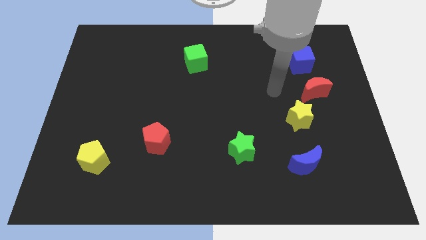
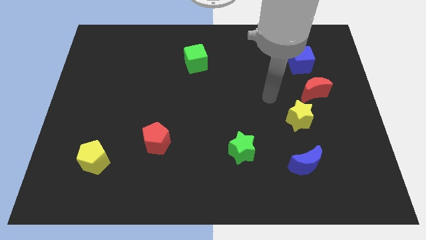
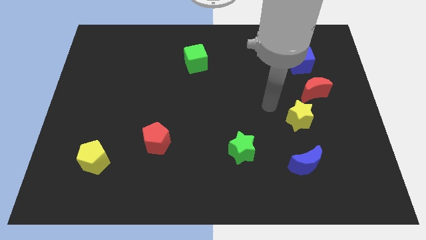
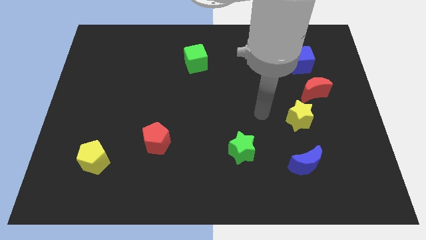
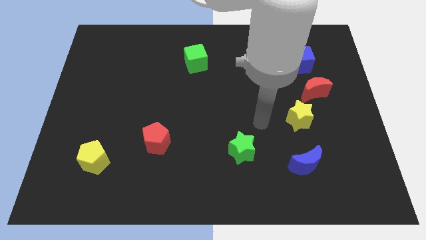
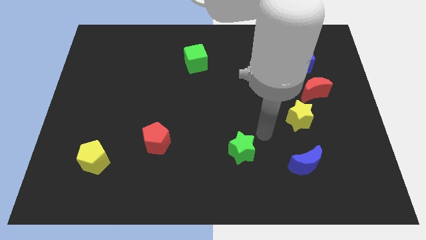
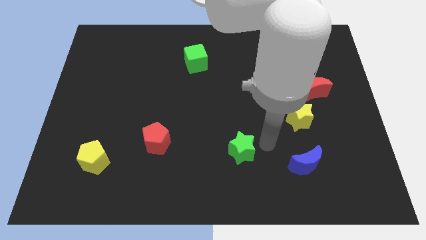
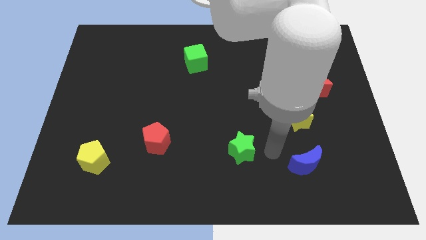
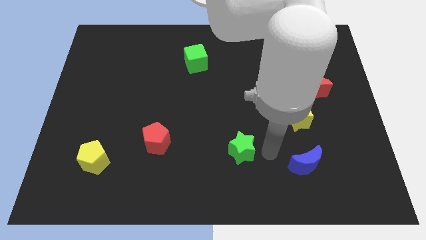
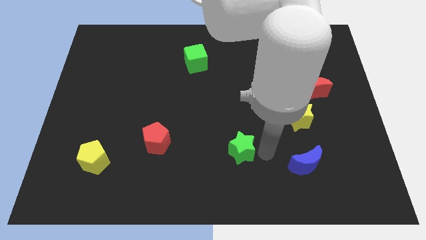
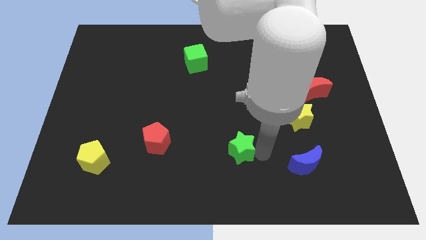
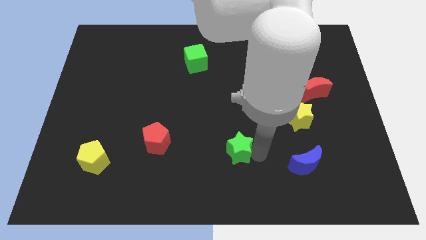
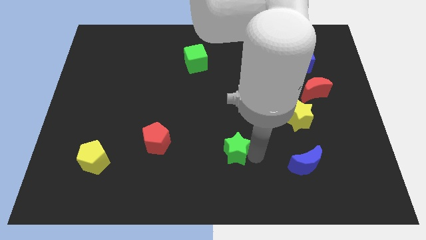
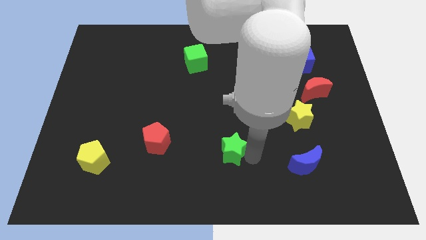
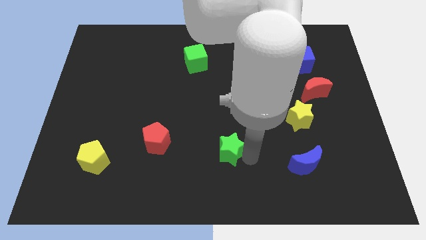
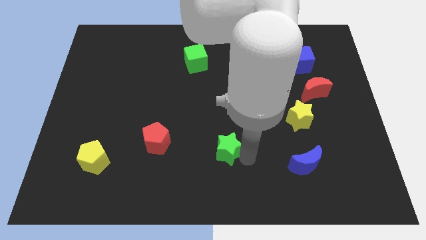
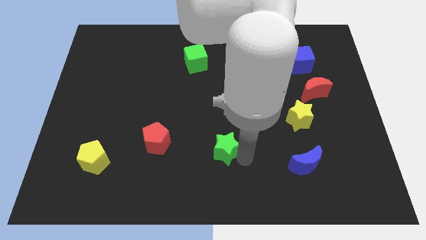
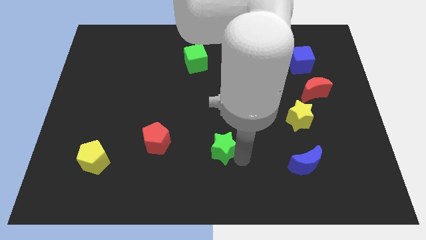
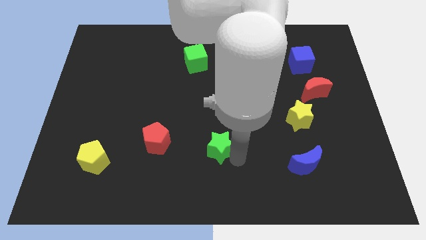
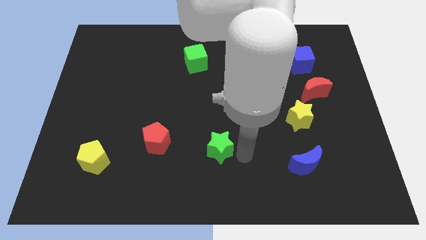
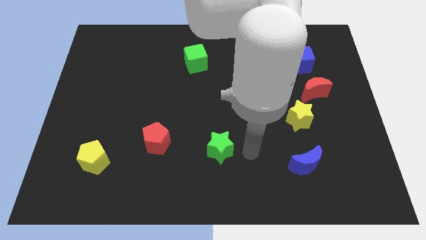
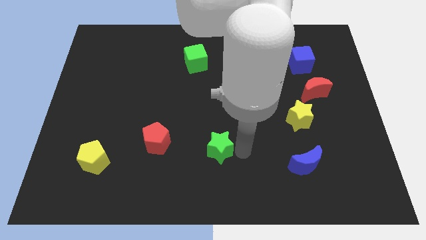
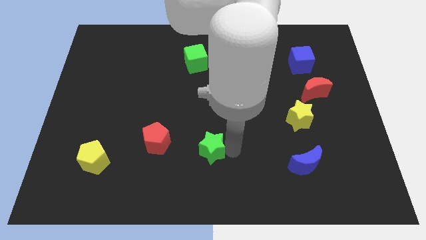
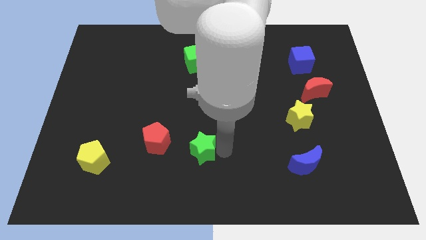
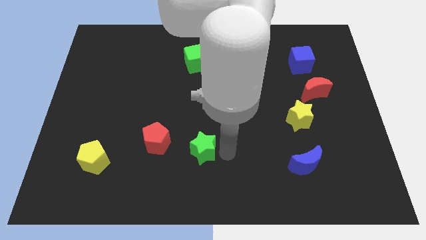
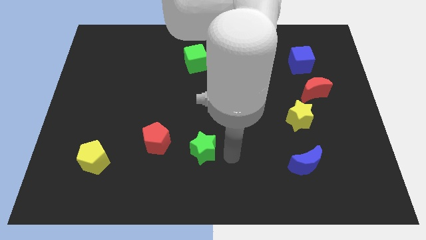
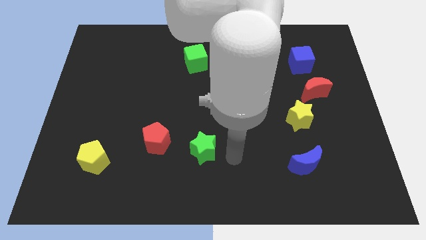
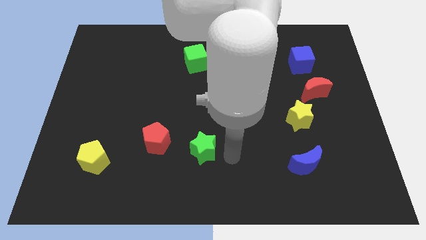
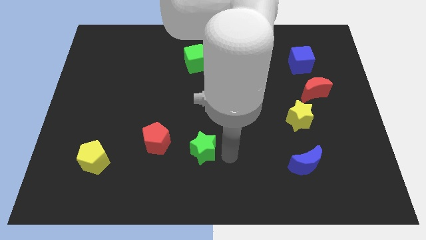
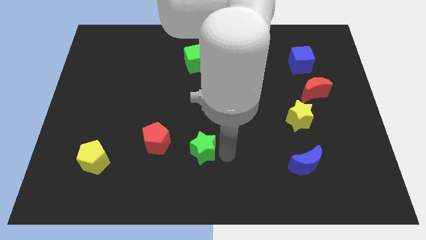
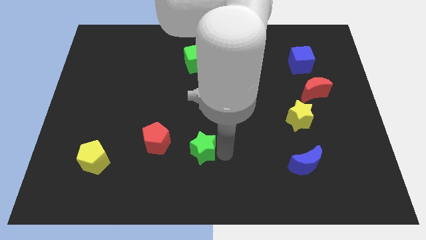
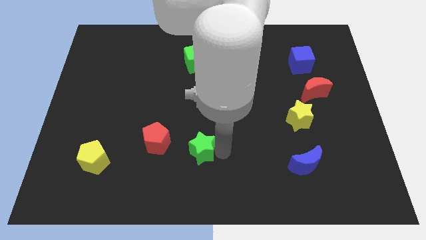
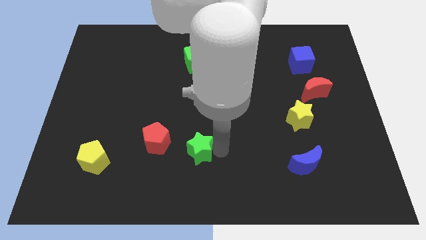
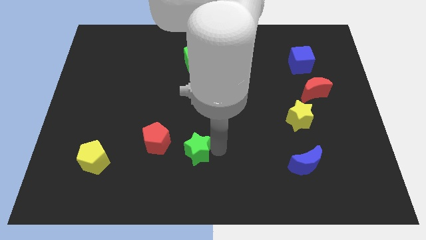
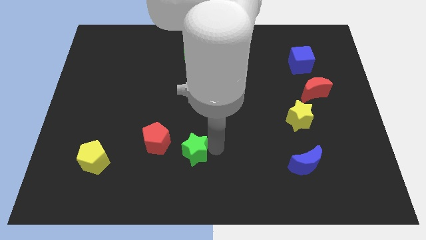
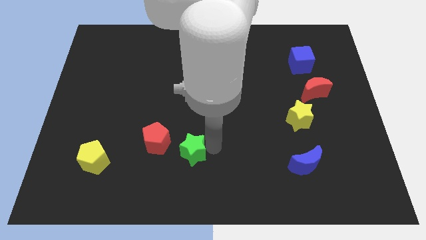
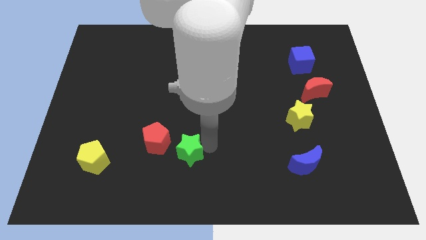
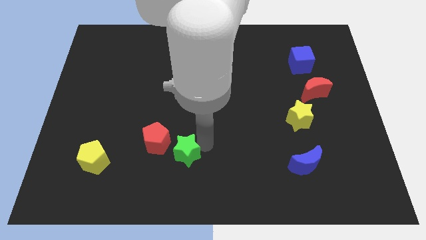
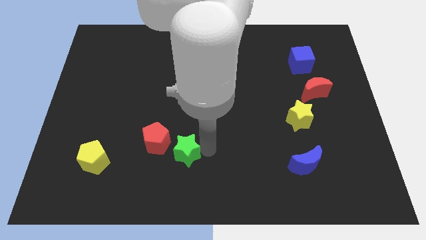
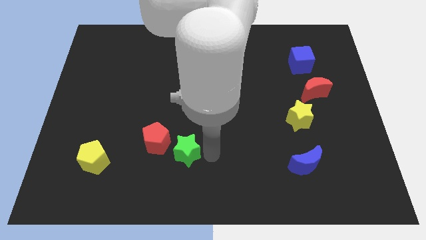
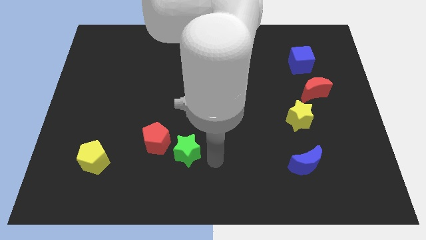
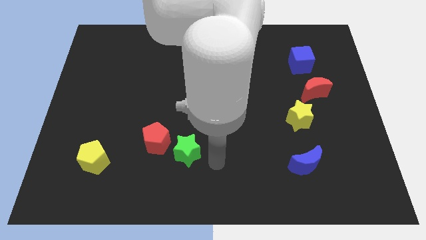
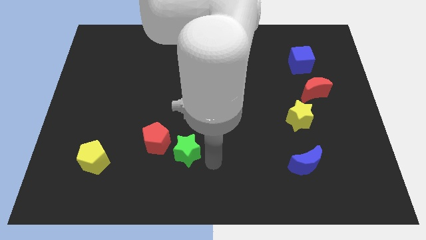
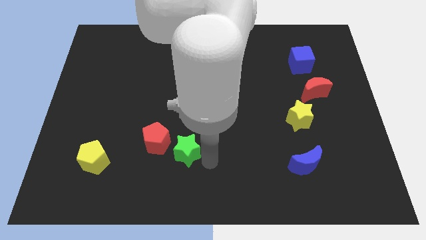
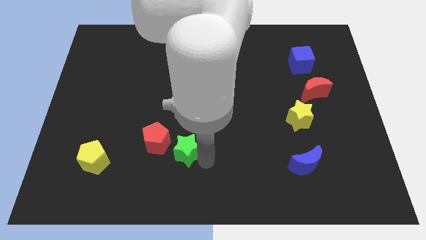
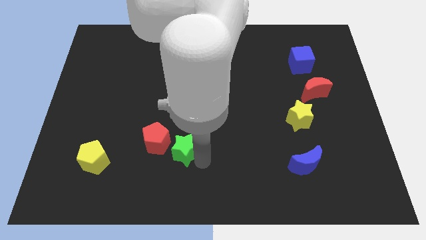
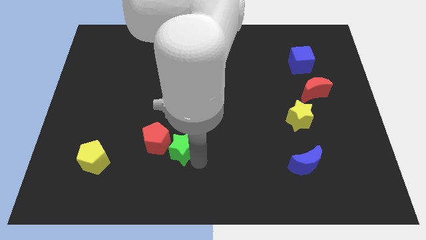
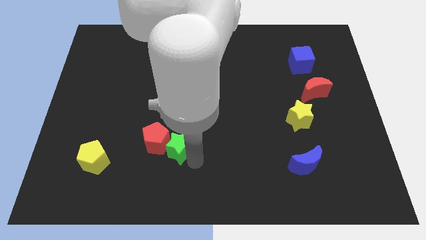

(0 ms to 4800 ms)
push the green star close to the red pentagon

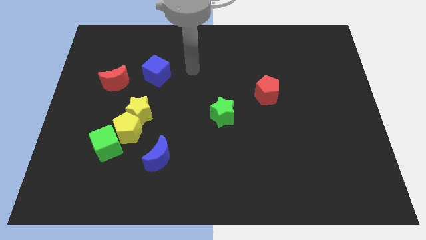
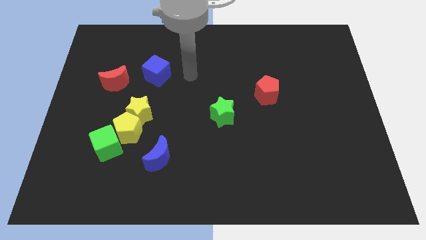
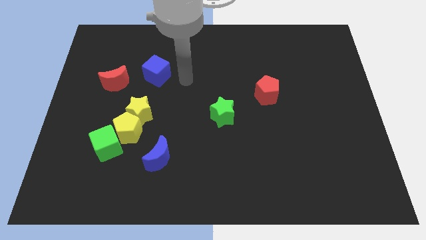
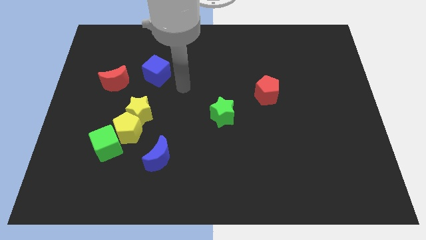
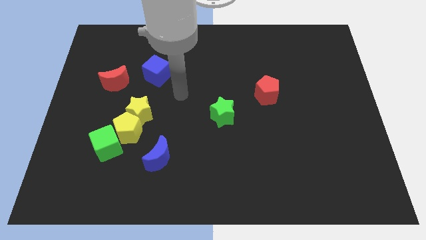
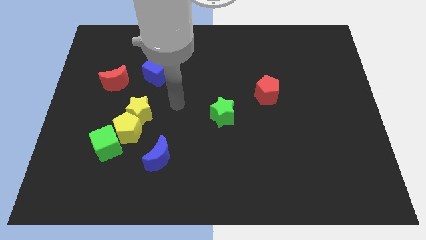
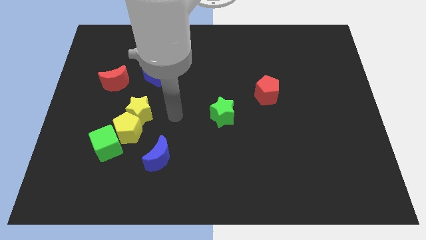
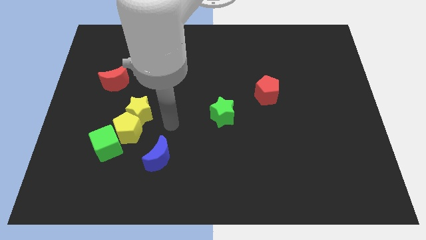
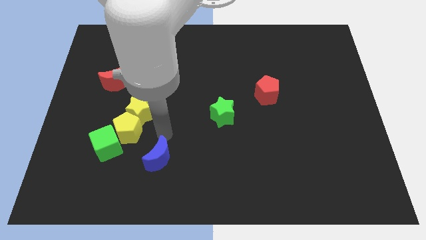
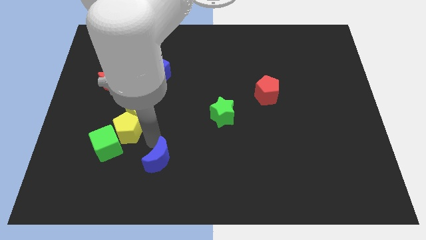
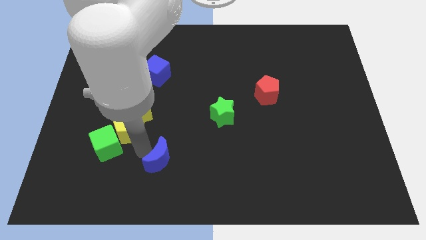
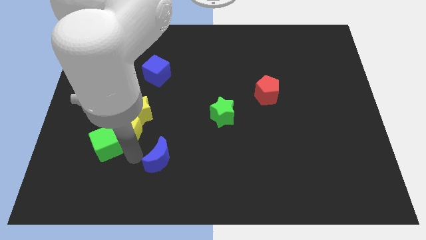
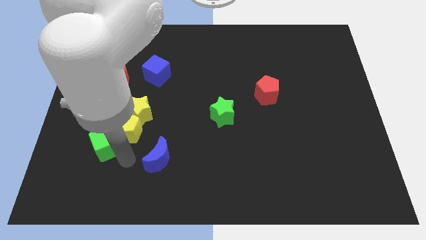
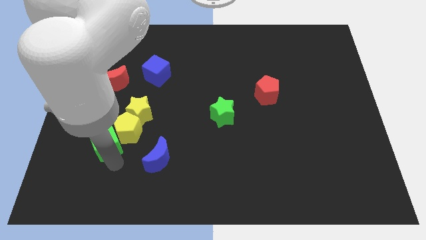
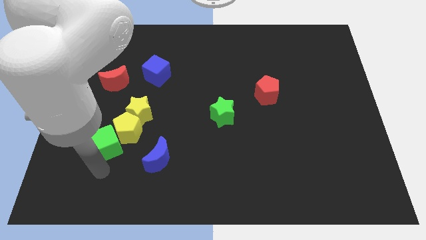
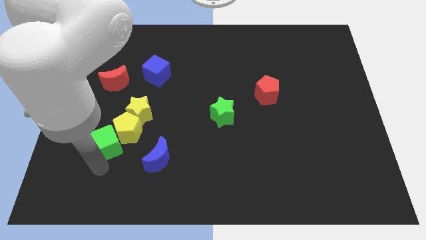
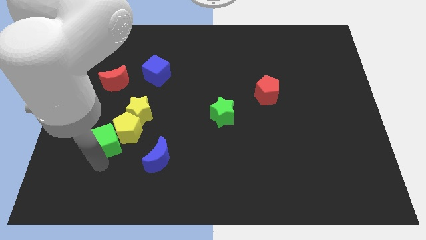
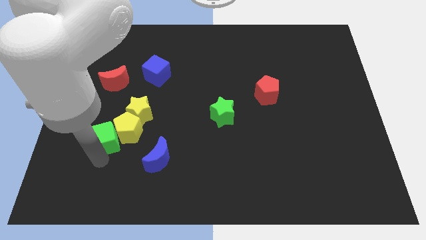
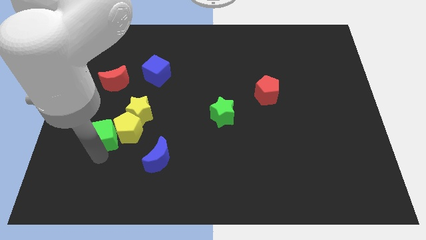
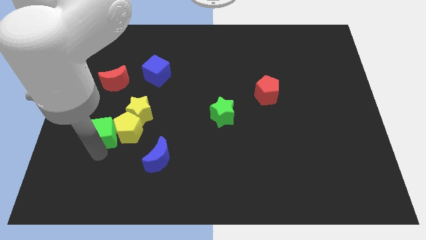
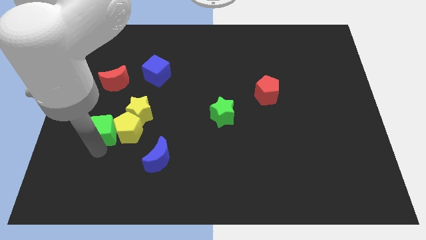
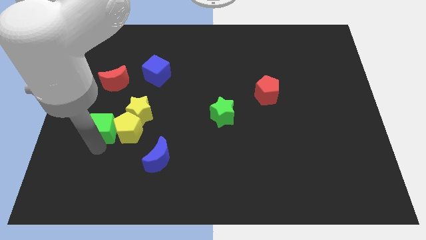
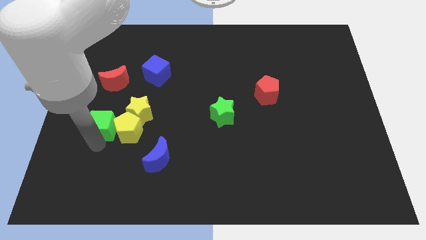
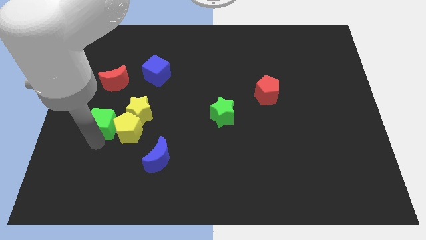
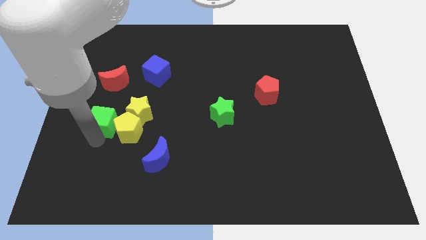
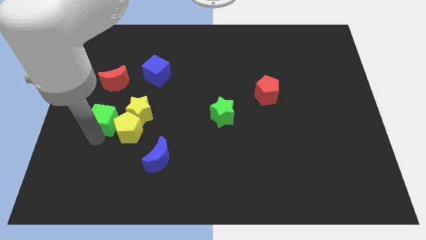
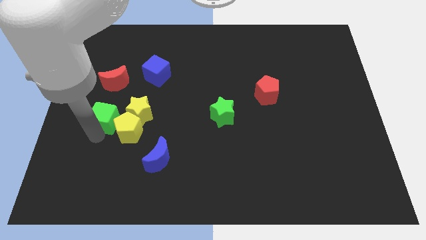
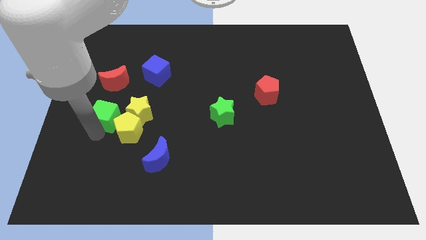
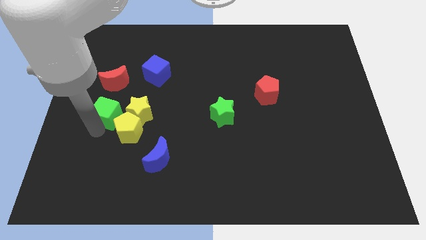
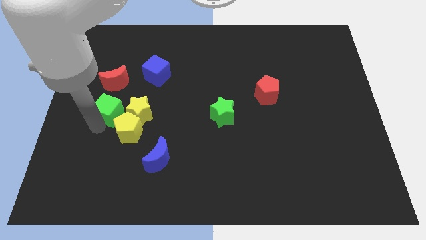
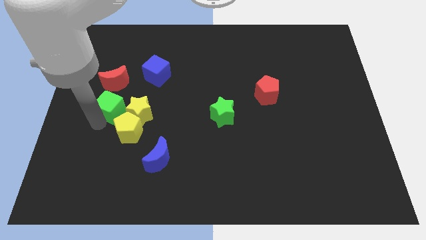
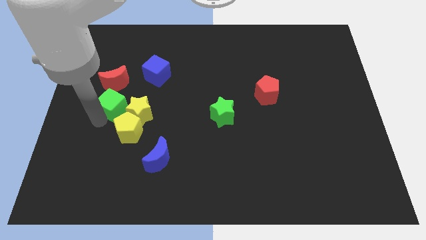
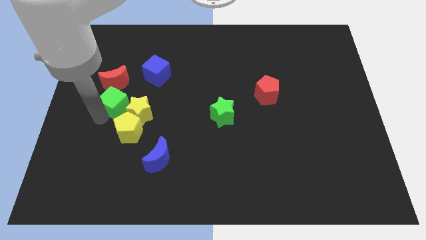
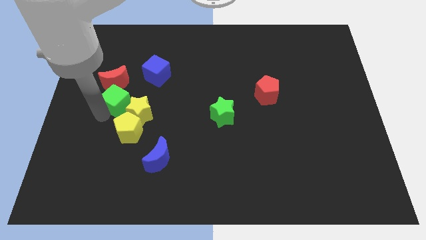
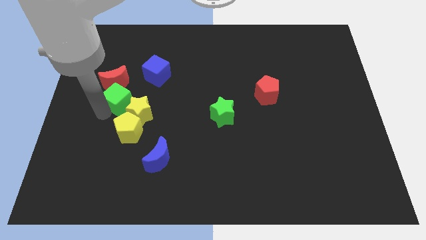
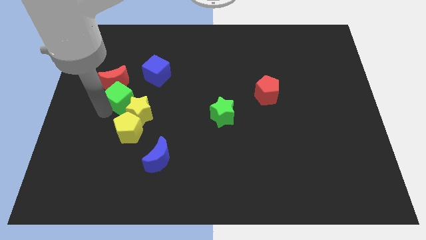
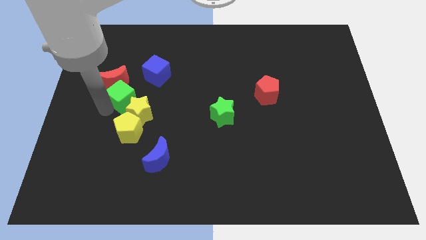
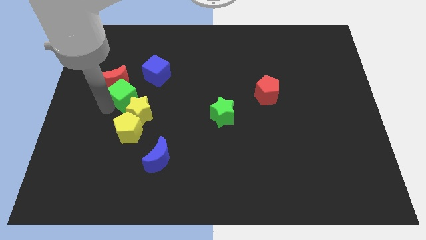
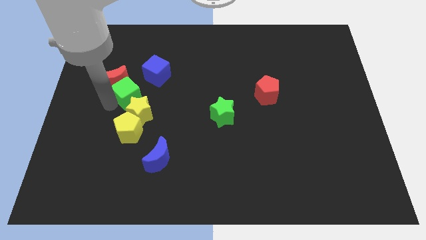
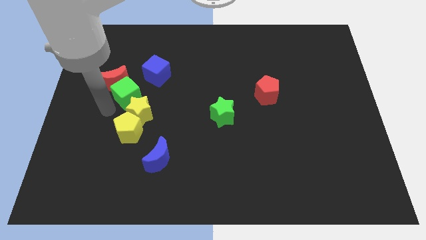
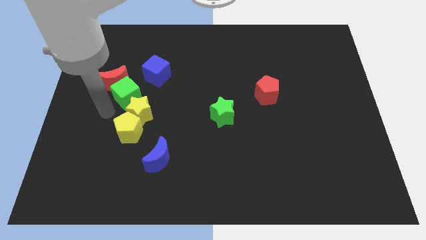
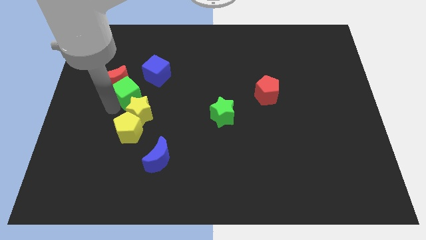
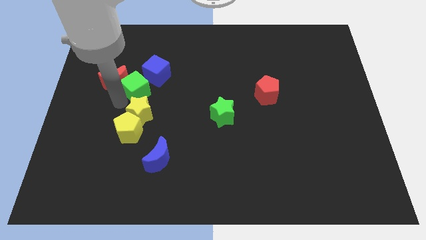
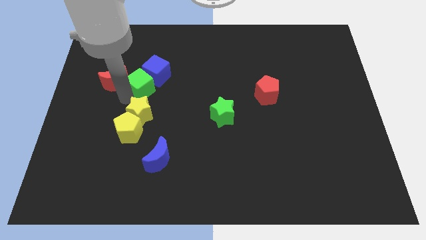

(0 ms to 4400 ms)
move the green cube to the blue cube
